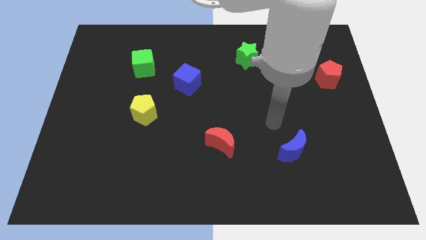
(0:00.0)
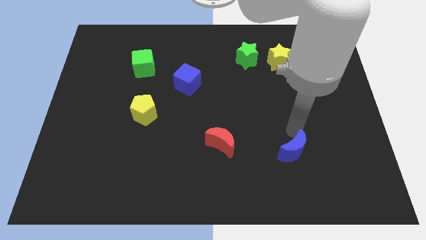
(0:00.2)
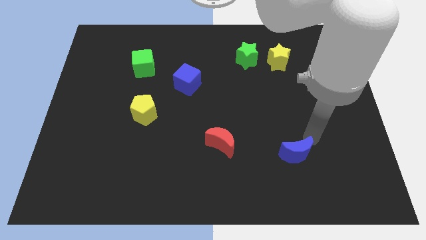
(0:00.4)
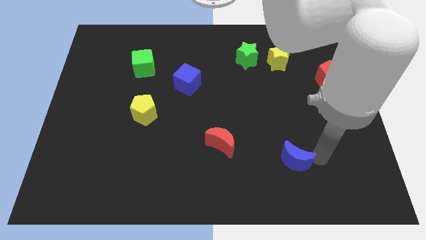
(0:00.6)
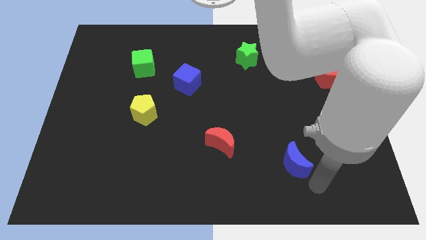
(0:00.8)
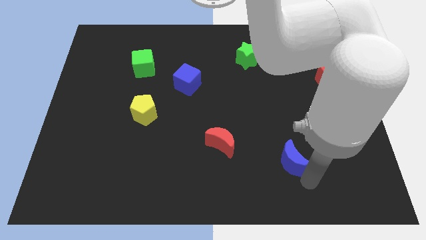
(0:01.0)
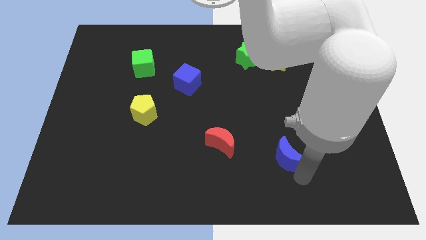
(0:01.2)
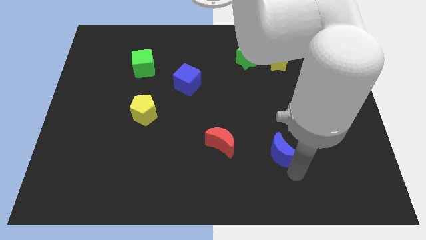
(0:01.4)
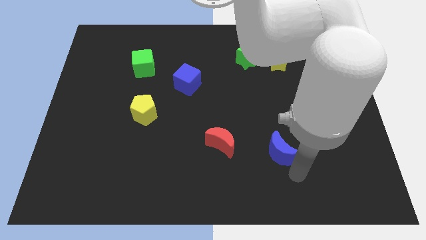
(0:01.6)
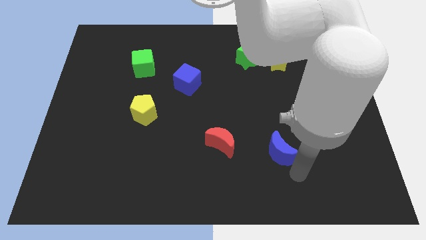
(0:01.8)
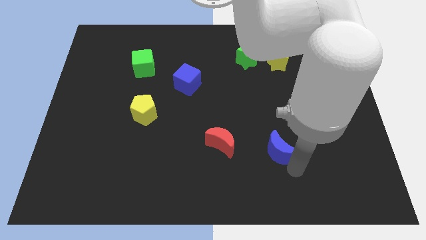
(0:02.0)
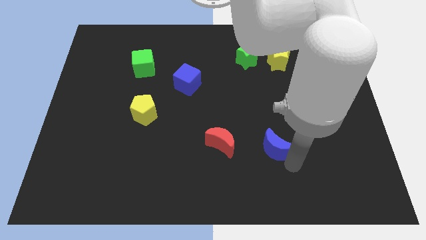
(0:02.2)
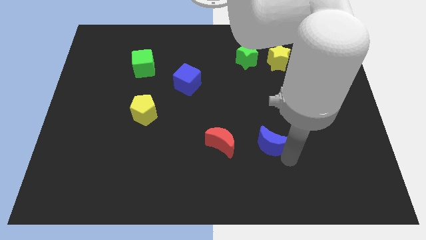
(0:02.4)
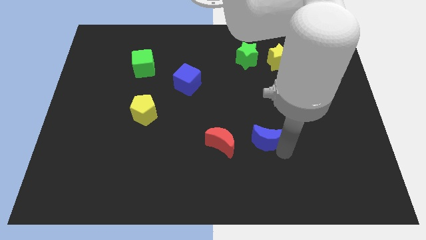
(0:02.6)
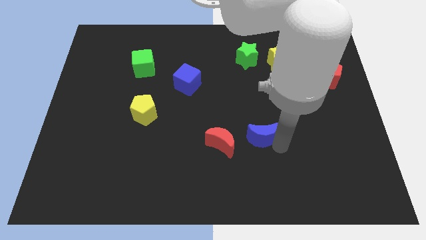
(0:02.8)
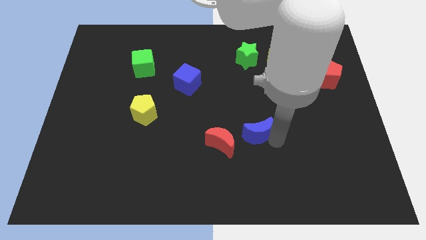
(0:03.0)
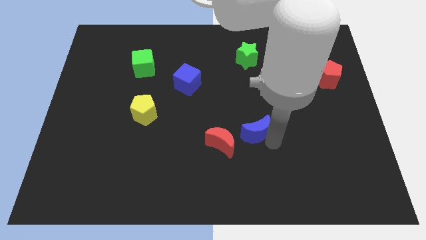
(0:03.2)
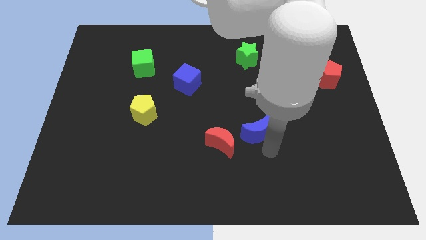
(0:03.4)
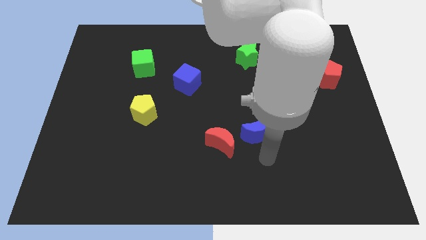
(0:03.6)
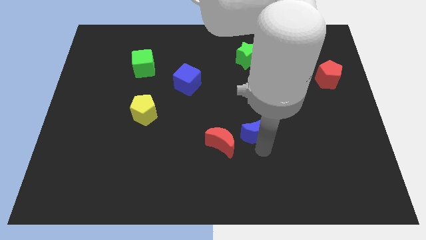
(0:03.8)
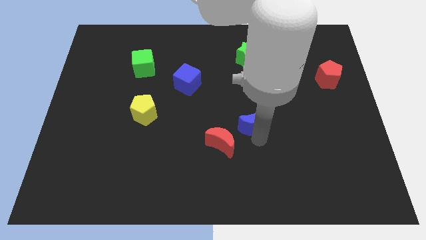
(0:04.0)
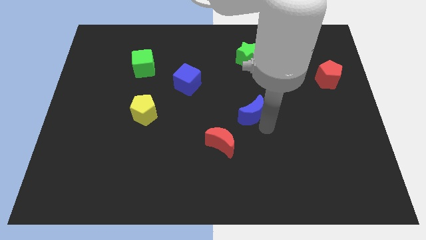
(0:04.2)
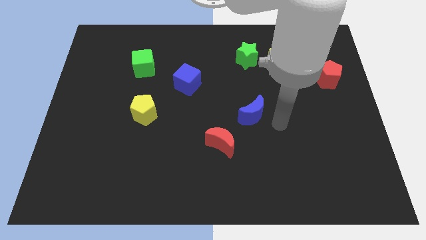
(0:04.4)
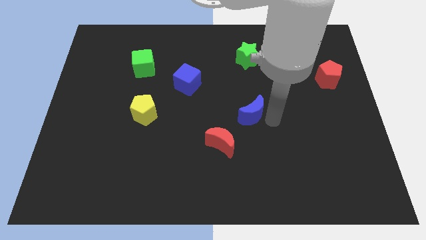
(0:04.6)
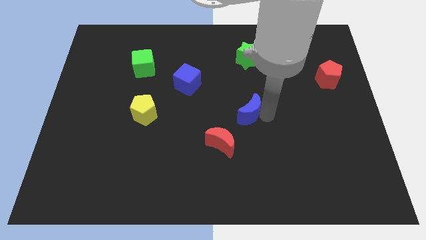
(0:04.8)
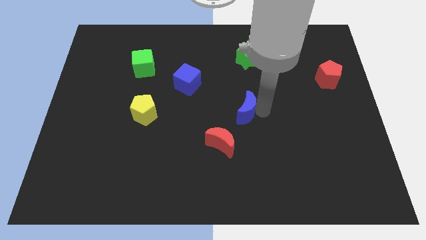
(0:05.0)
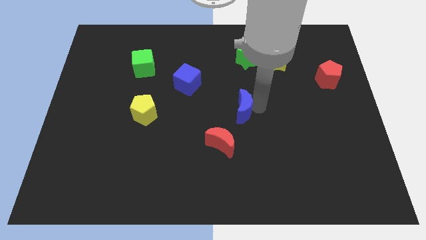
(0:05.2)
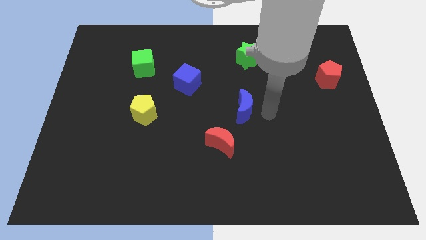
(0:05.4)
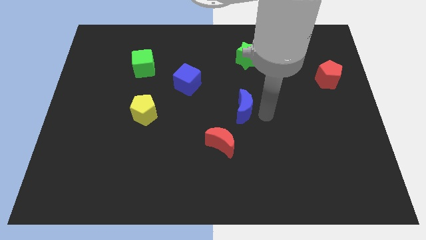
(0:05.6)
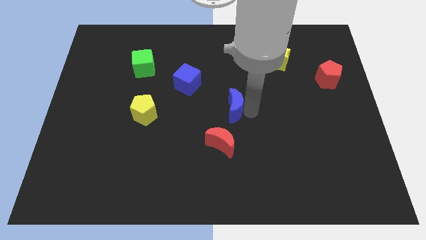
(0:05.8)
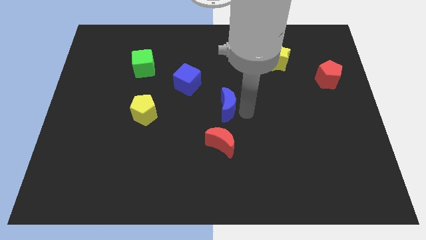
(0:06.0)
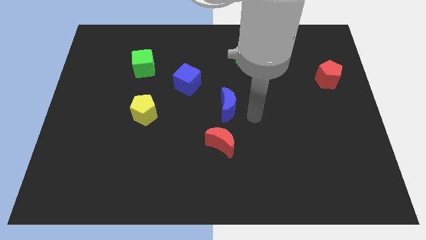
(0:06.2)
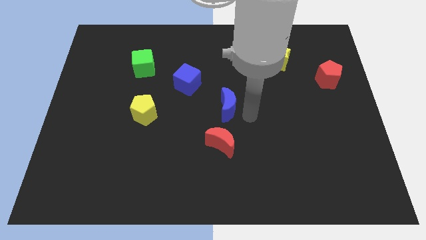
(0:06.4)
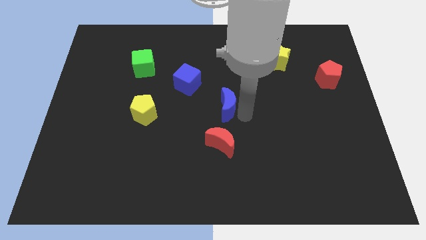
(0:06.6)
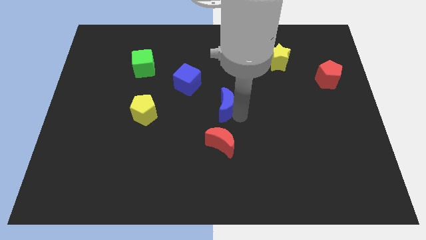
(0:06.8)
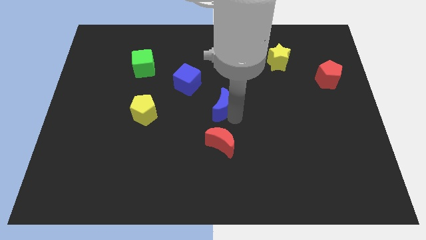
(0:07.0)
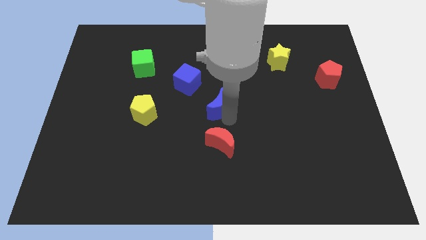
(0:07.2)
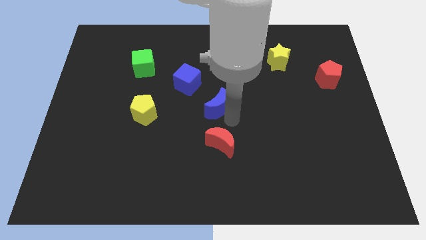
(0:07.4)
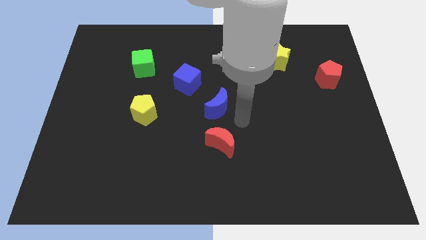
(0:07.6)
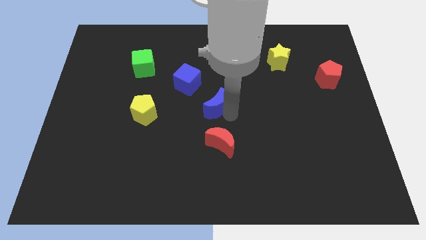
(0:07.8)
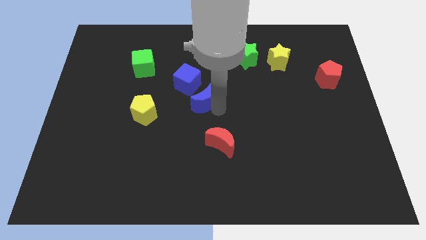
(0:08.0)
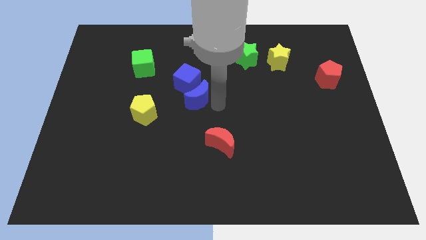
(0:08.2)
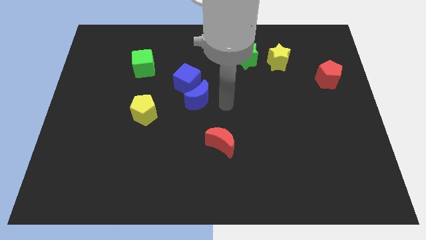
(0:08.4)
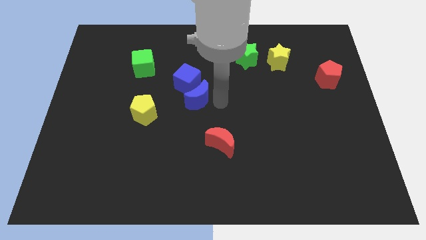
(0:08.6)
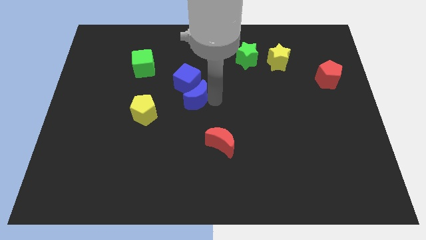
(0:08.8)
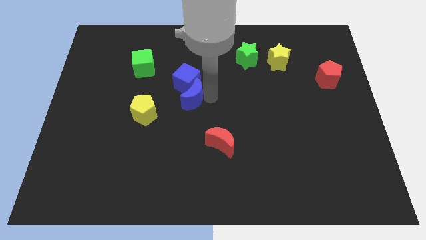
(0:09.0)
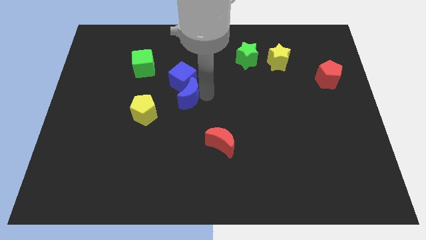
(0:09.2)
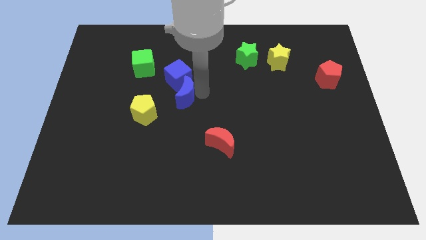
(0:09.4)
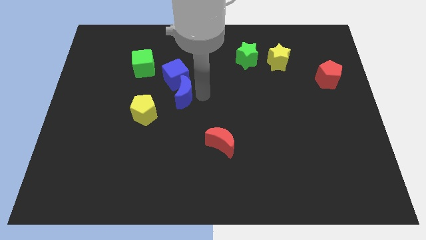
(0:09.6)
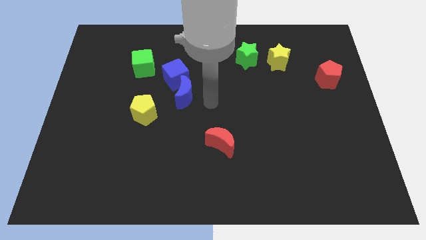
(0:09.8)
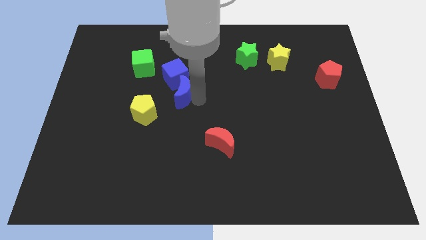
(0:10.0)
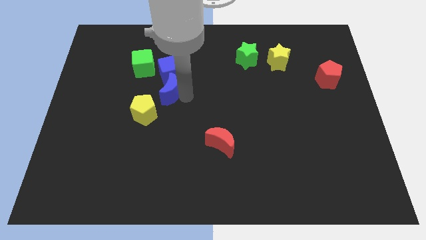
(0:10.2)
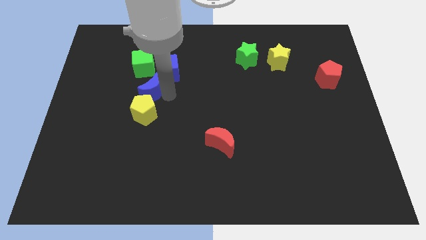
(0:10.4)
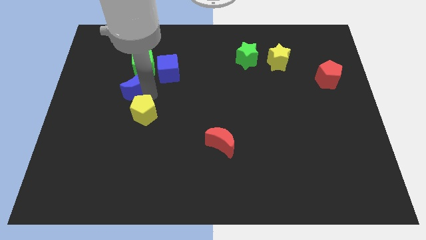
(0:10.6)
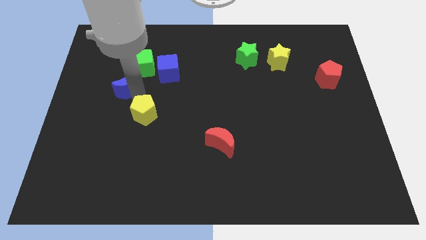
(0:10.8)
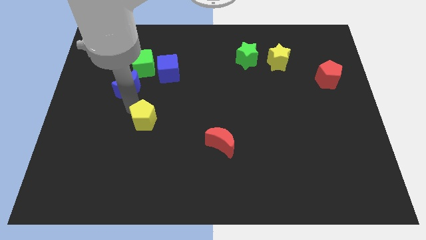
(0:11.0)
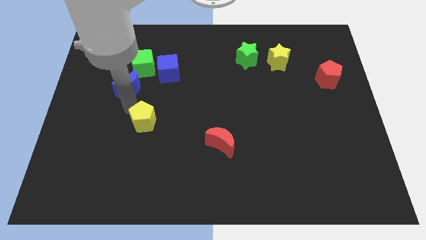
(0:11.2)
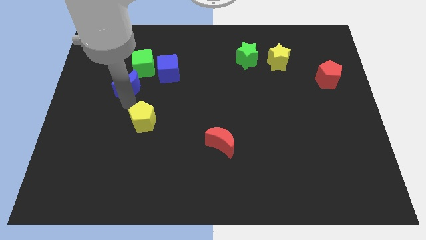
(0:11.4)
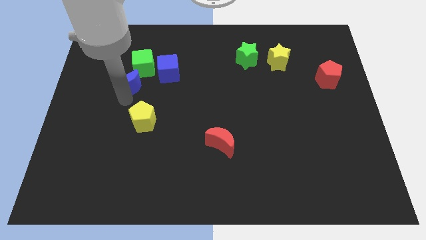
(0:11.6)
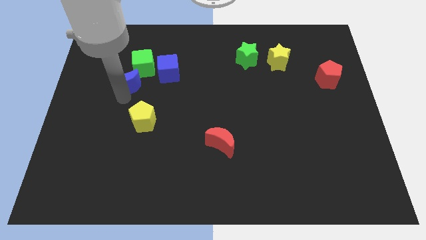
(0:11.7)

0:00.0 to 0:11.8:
move the blue moon left of the blue cube

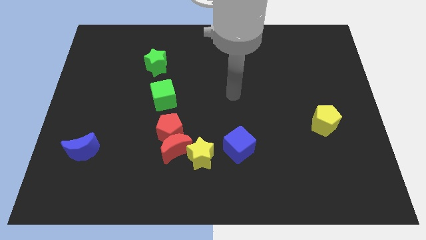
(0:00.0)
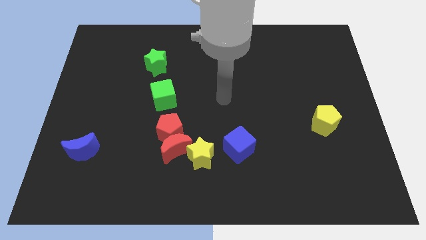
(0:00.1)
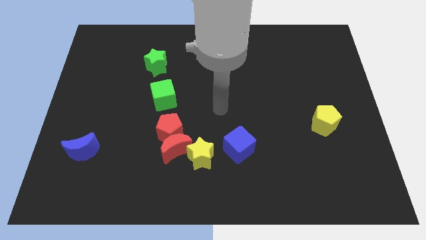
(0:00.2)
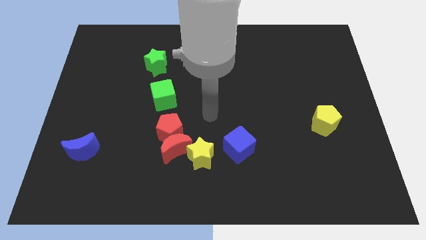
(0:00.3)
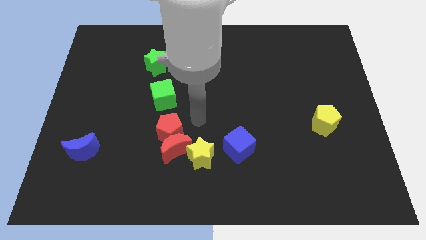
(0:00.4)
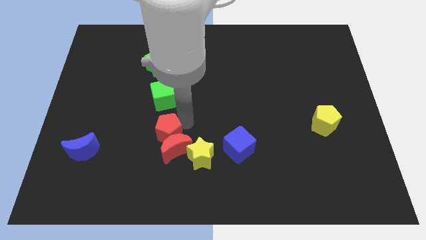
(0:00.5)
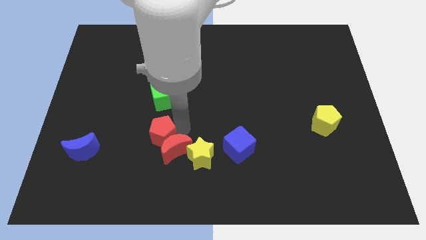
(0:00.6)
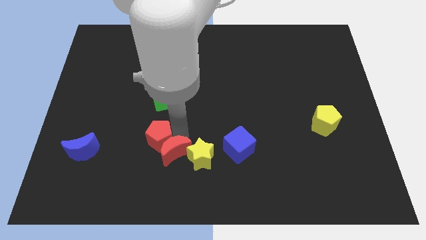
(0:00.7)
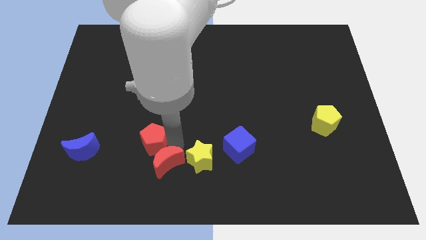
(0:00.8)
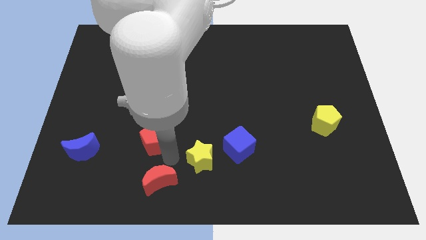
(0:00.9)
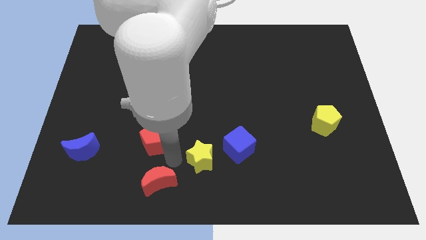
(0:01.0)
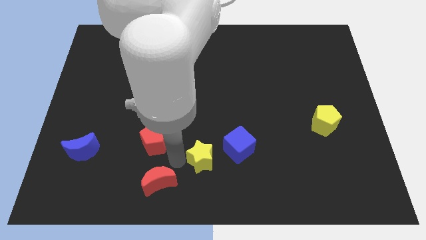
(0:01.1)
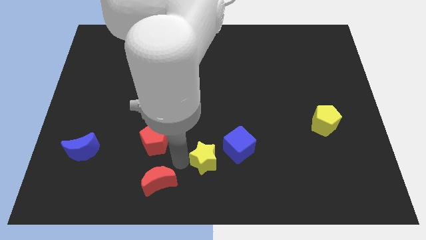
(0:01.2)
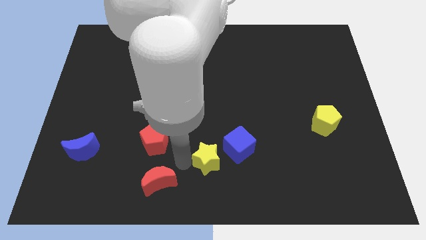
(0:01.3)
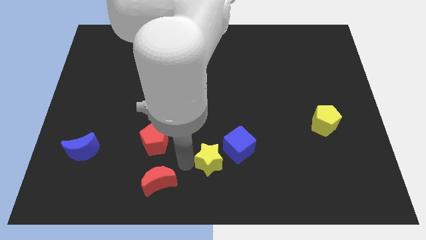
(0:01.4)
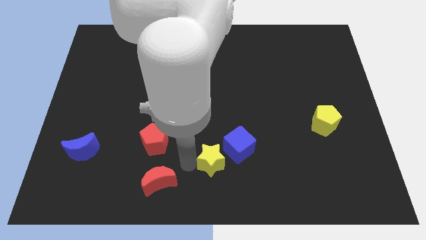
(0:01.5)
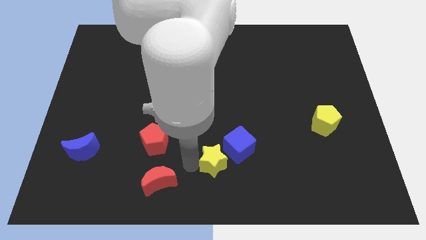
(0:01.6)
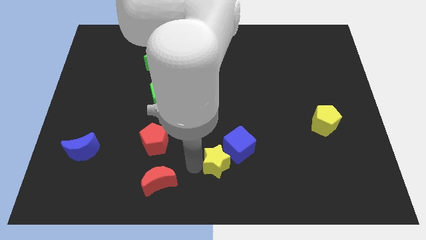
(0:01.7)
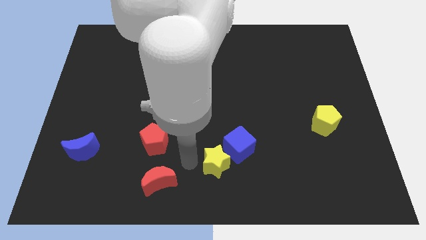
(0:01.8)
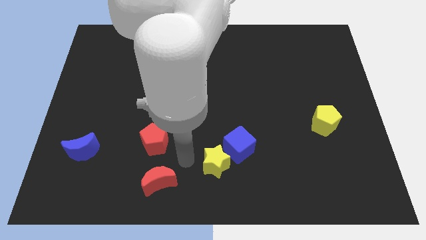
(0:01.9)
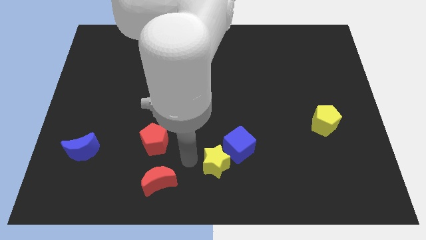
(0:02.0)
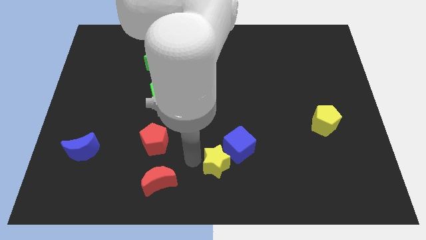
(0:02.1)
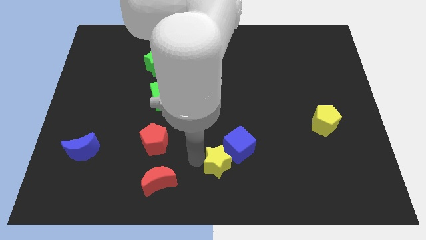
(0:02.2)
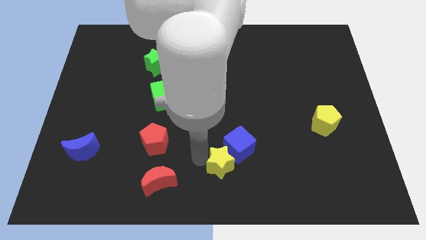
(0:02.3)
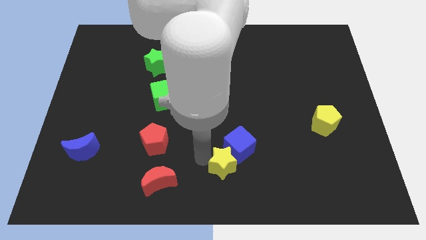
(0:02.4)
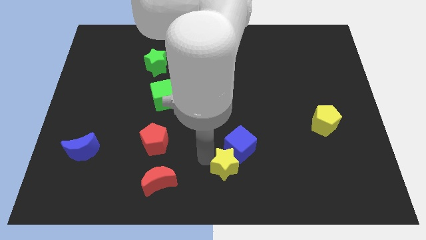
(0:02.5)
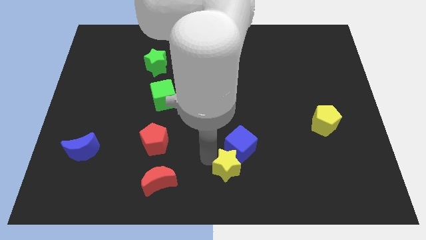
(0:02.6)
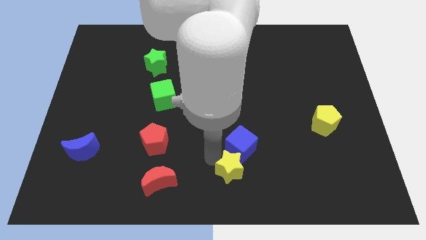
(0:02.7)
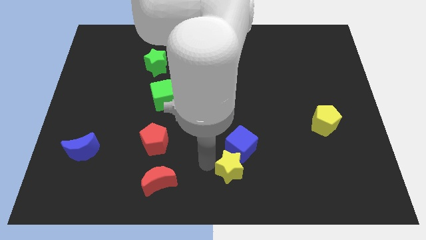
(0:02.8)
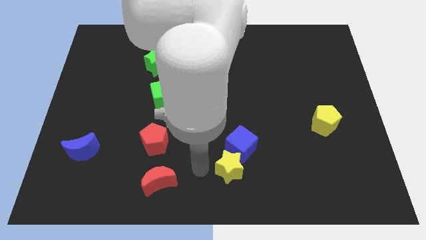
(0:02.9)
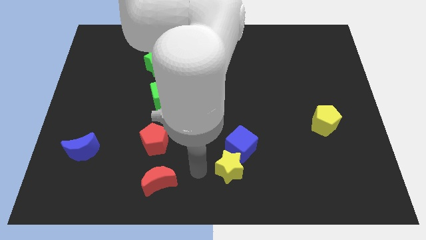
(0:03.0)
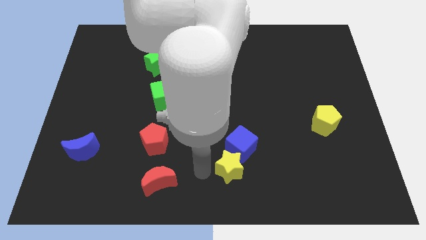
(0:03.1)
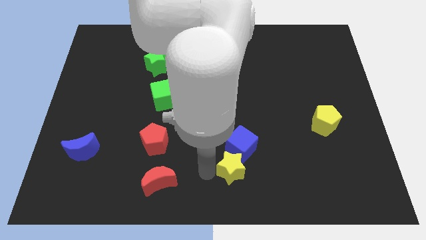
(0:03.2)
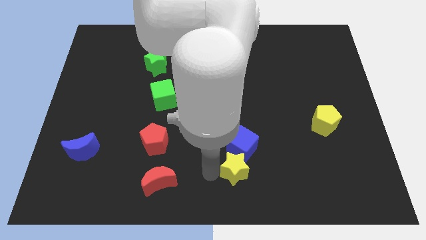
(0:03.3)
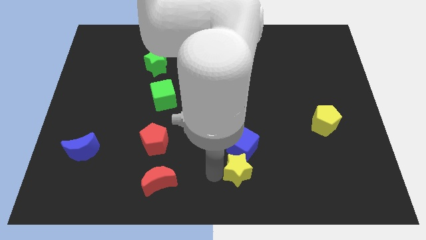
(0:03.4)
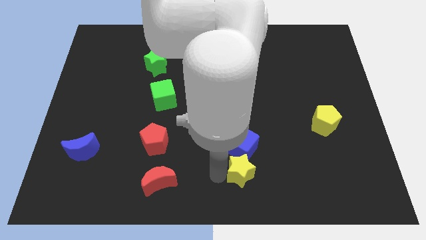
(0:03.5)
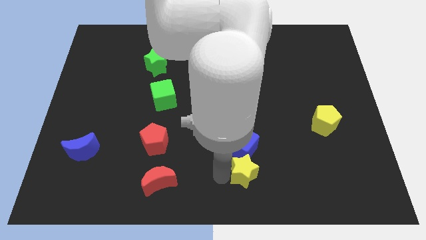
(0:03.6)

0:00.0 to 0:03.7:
slide the yellow star to the bottom right of the blue cube
